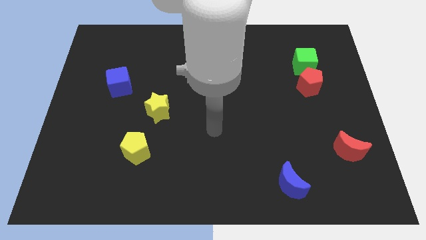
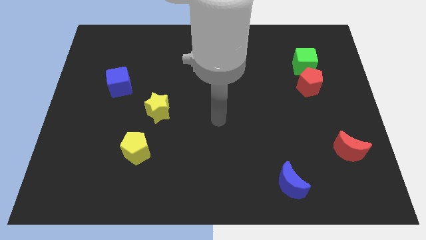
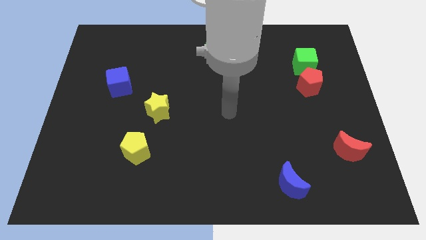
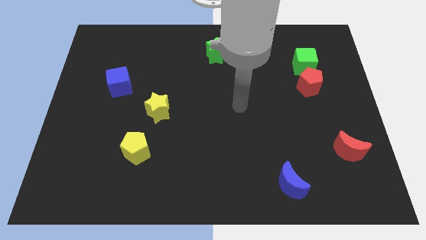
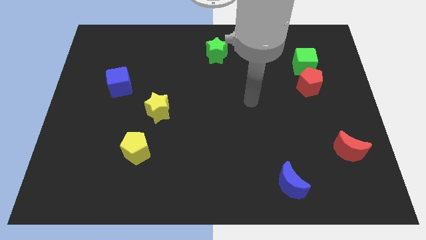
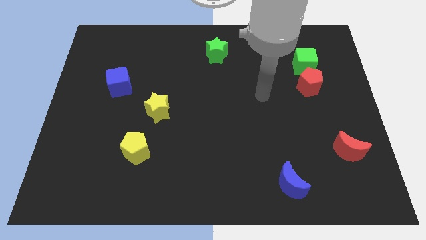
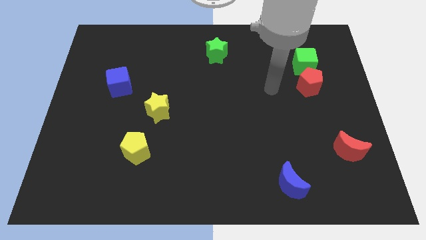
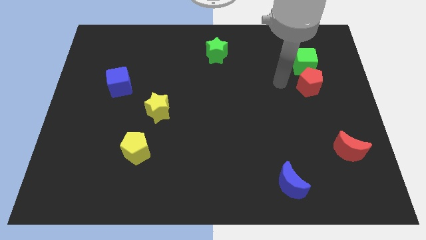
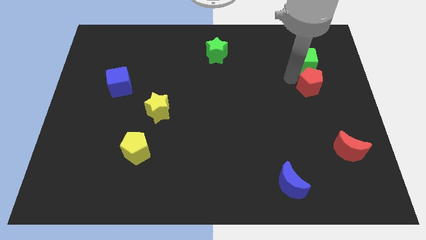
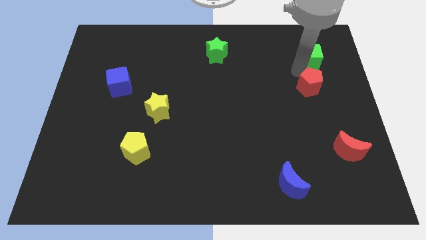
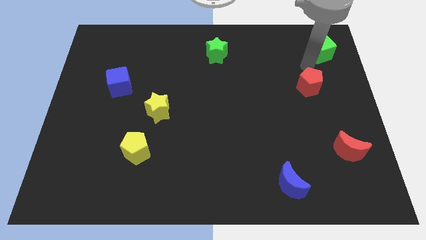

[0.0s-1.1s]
move the red pentagon away from the green cube

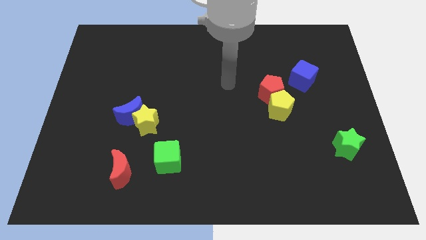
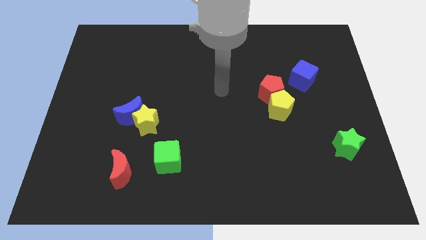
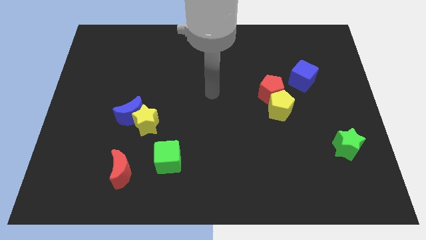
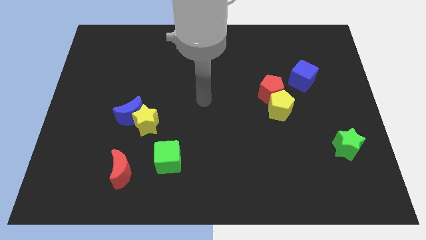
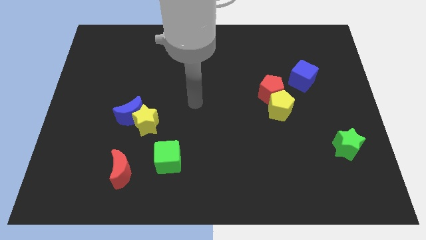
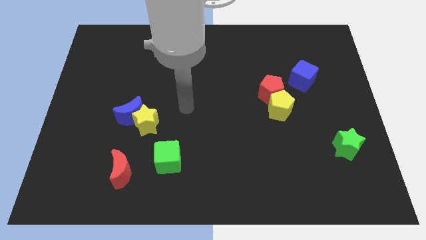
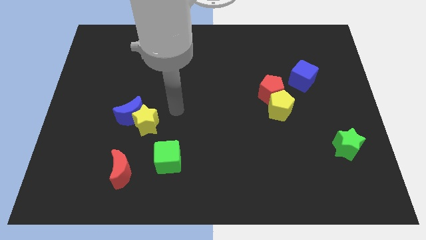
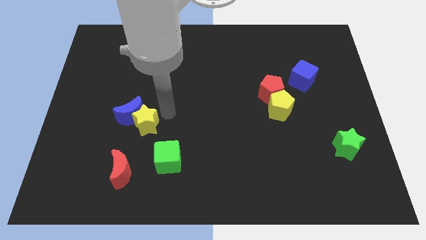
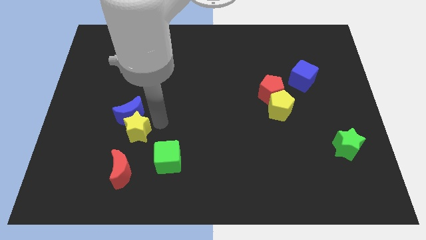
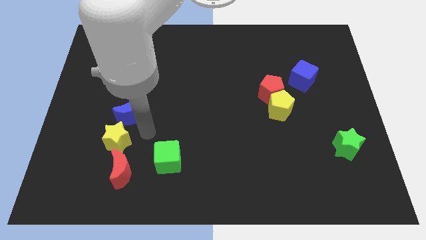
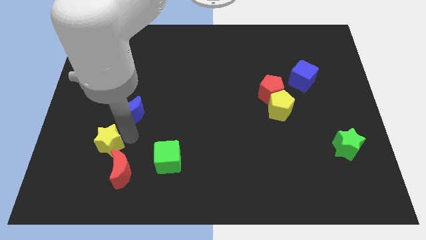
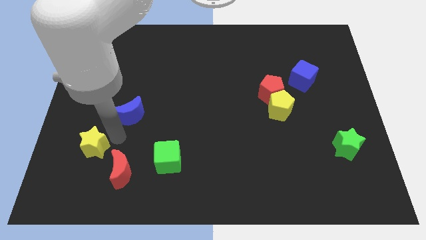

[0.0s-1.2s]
separate the blue moon from the yellow star

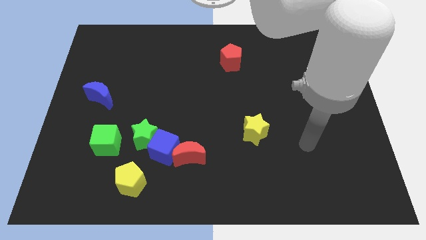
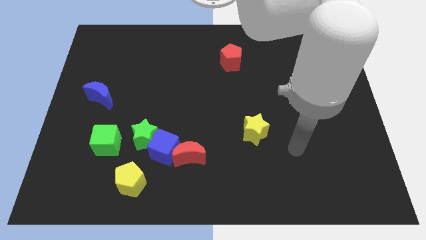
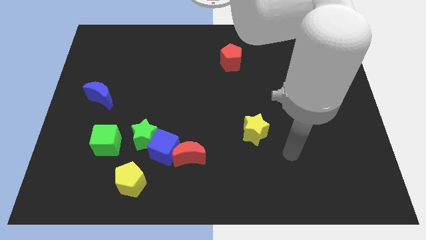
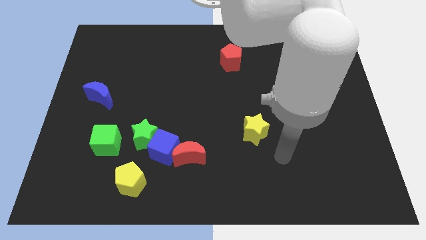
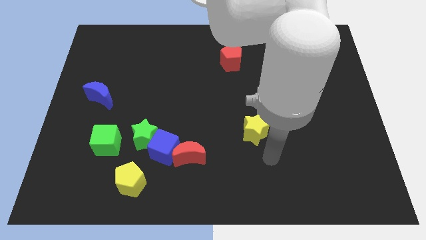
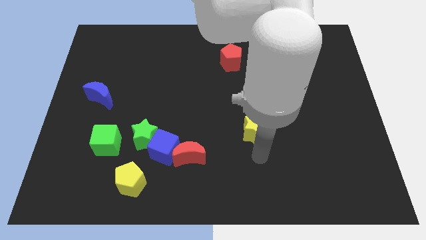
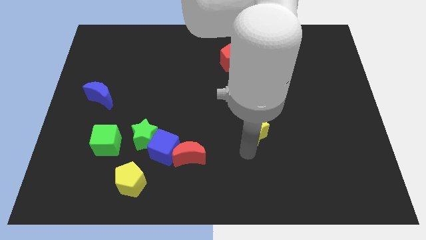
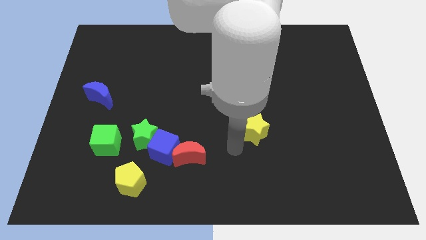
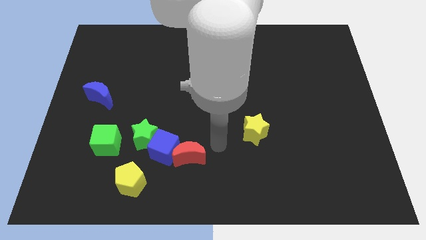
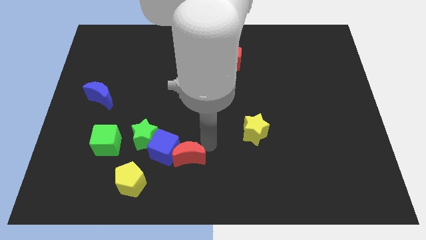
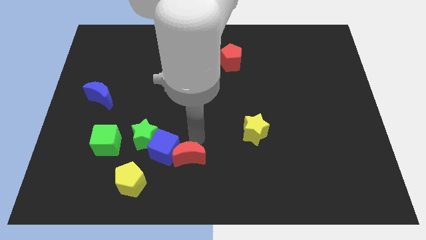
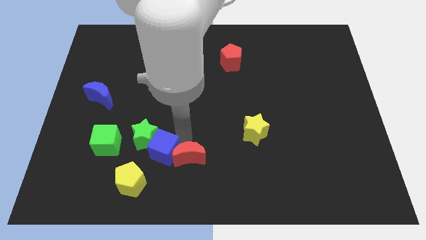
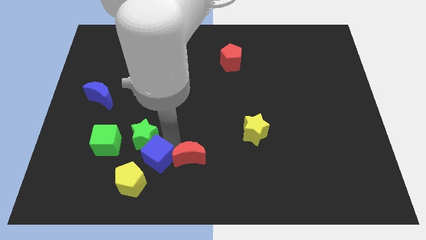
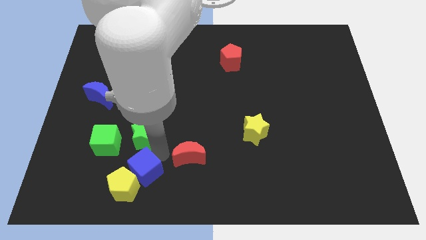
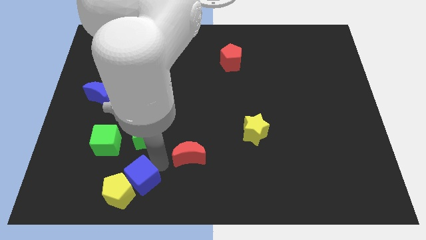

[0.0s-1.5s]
pull the red moon apart from the blue cube

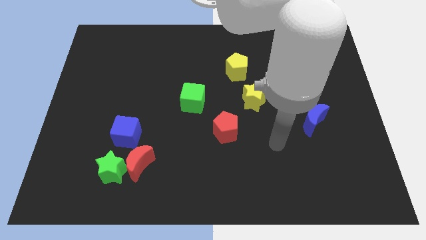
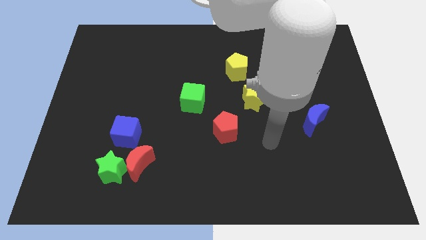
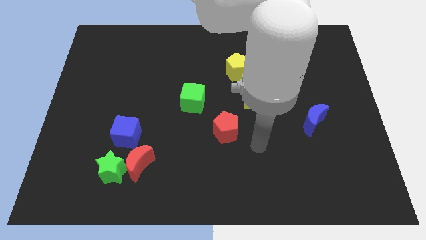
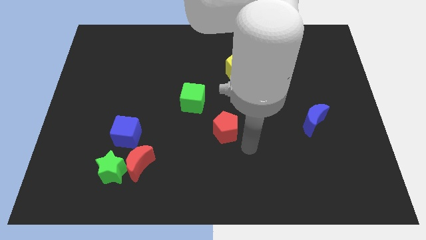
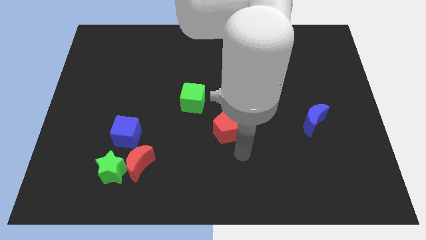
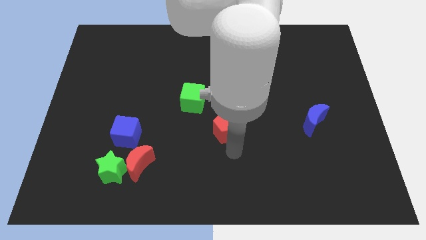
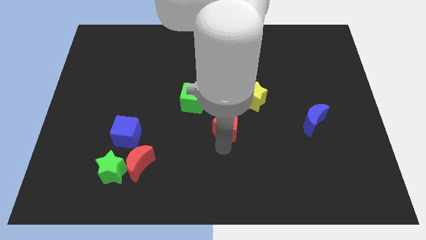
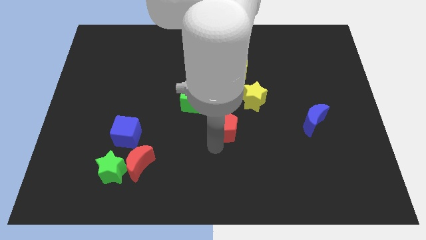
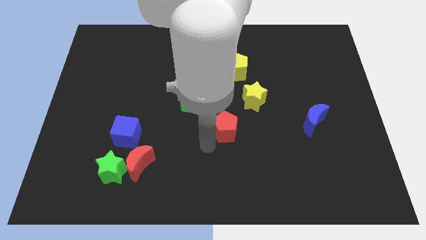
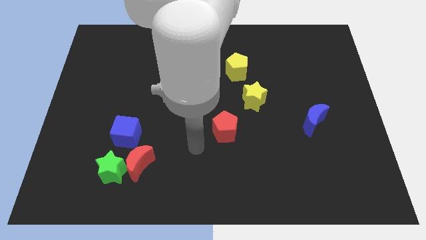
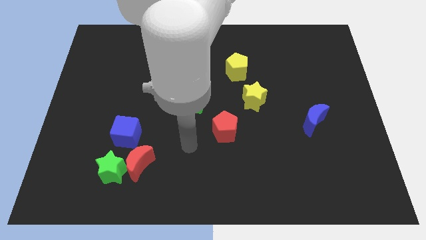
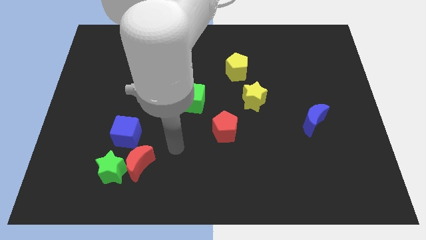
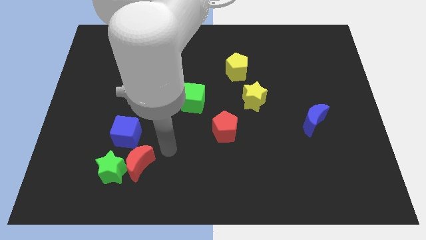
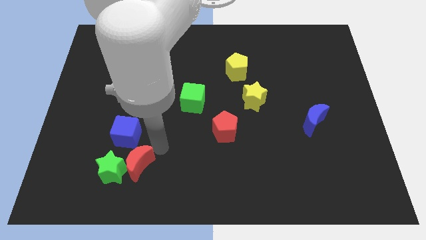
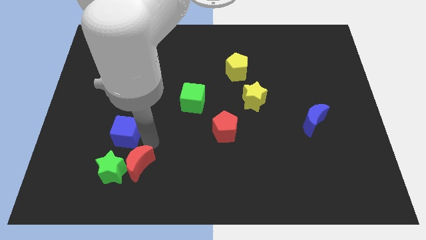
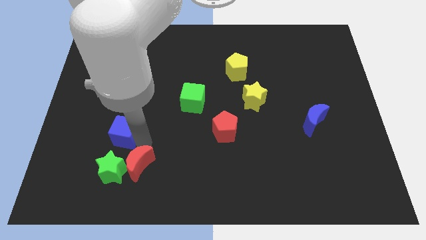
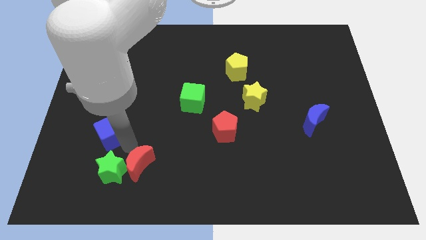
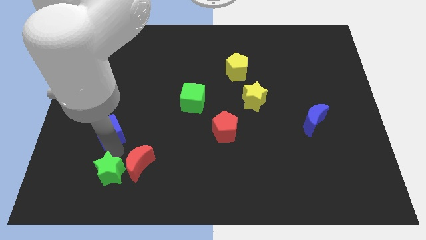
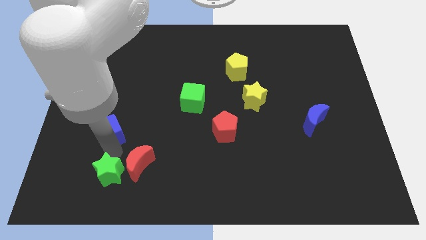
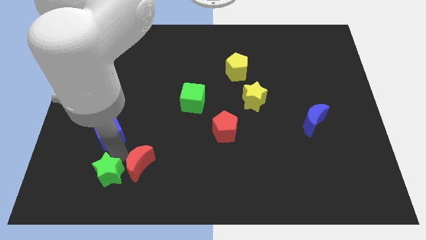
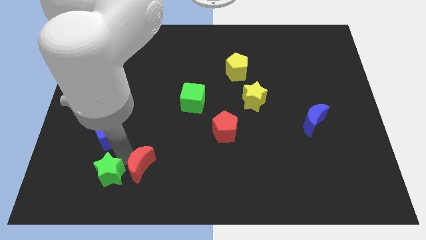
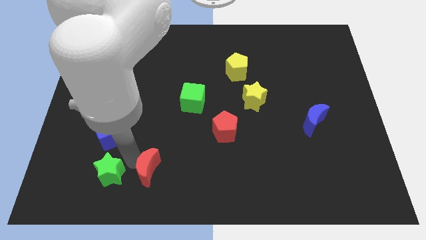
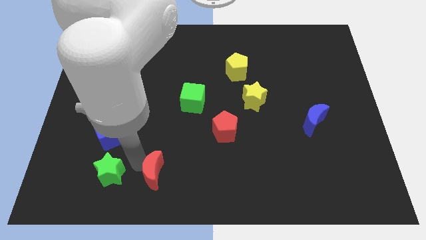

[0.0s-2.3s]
separate the red moon from the green star and blue cube

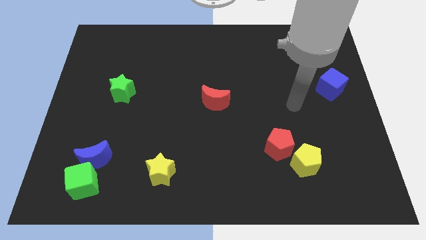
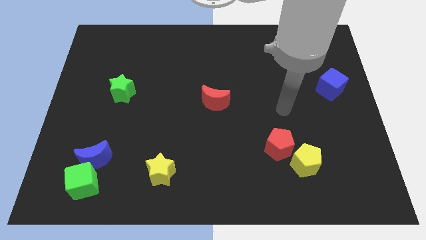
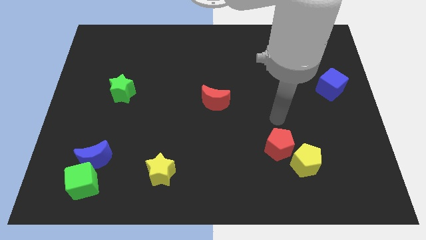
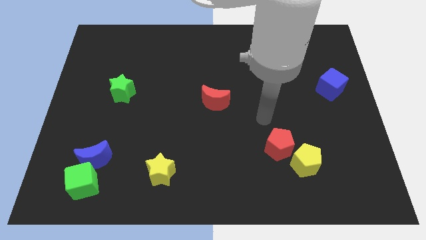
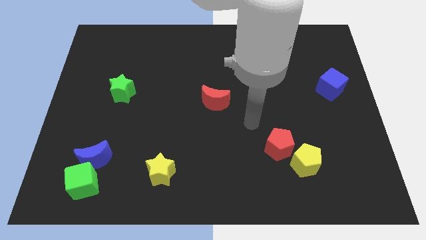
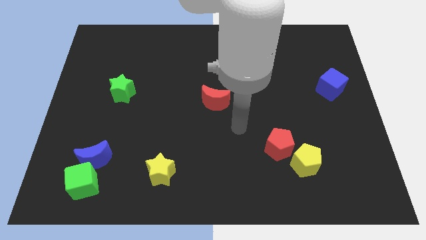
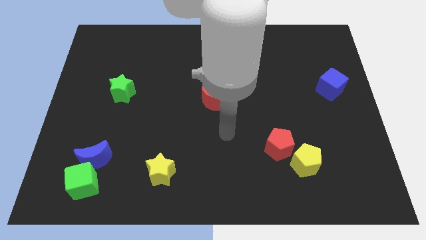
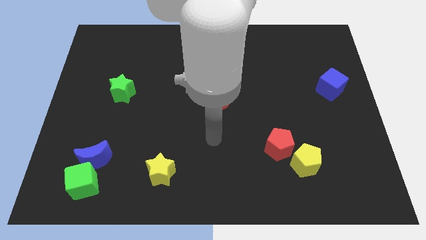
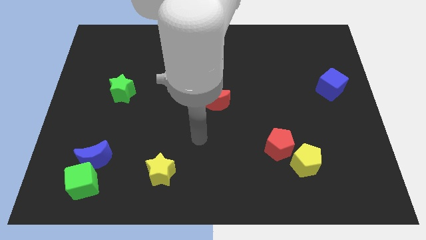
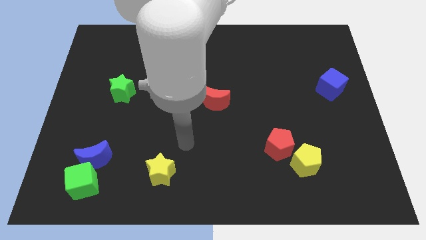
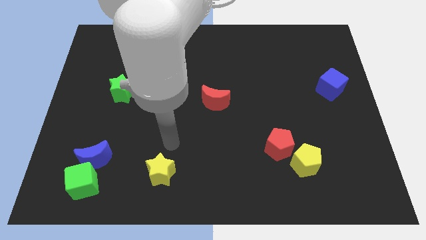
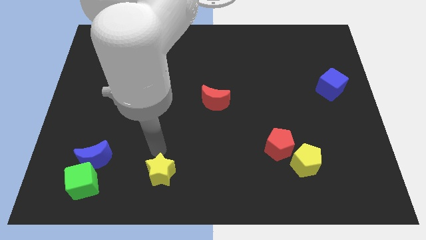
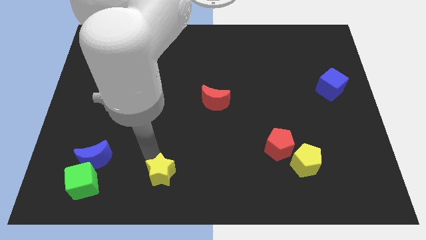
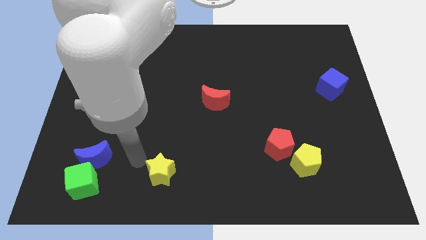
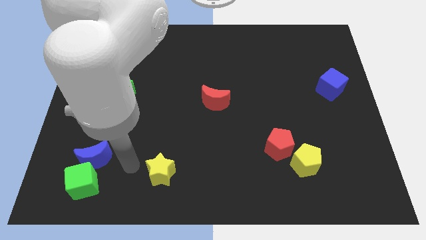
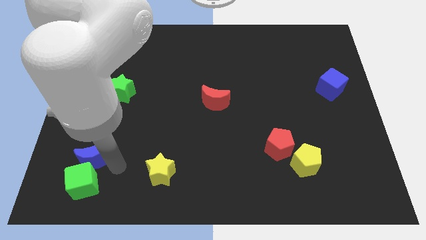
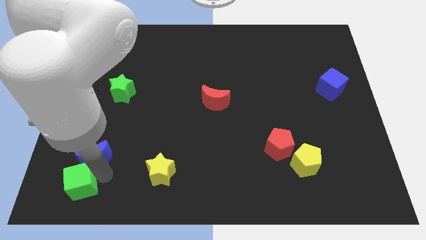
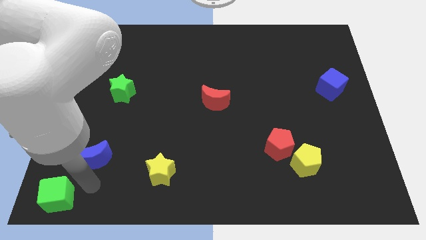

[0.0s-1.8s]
move the blue moon away from the green cube

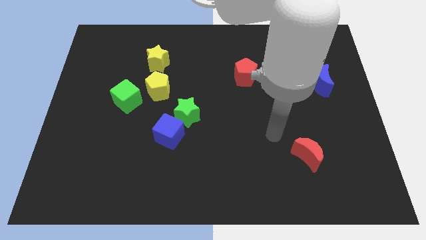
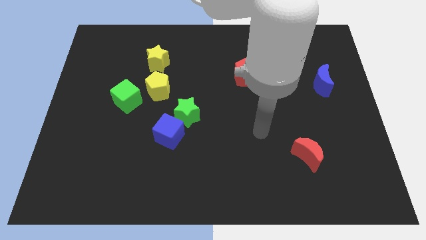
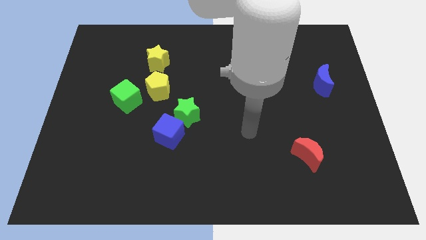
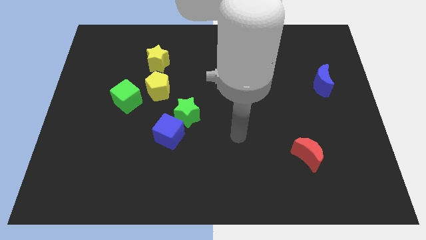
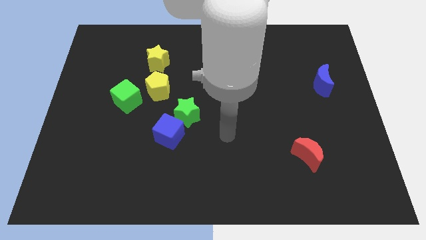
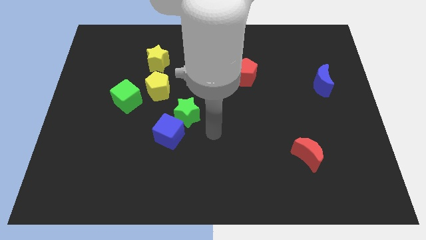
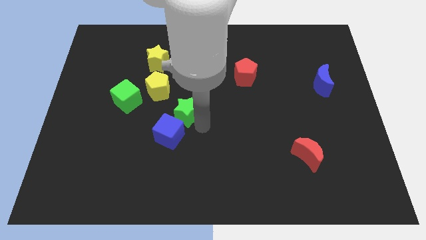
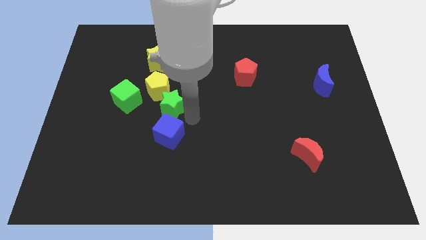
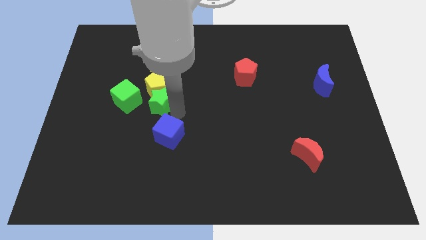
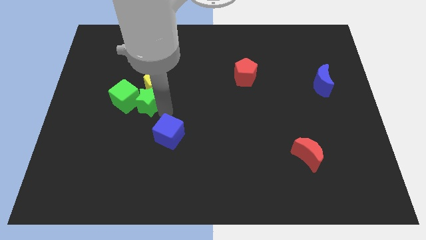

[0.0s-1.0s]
separate the blue cube from the green star

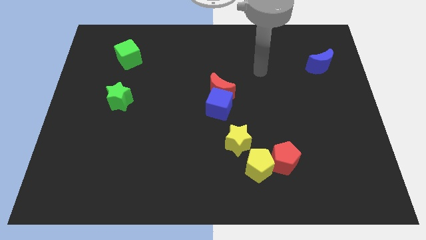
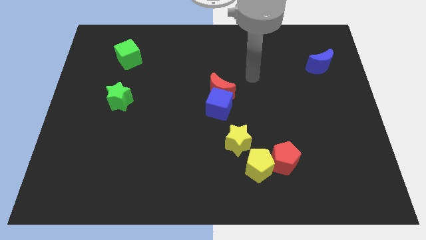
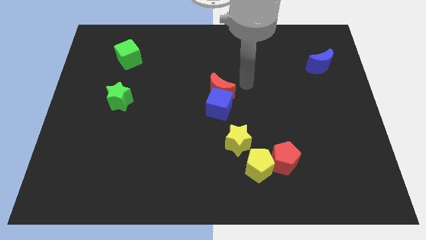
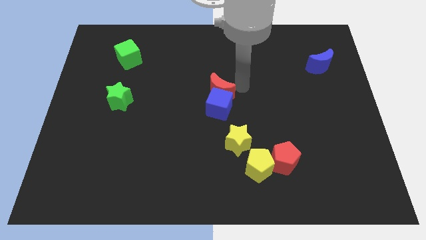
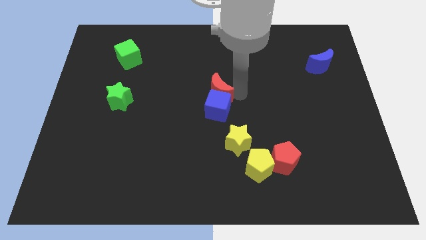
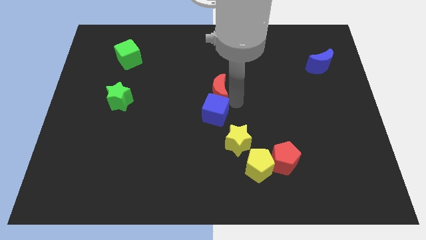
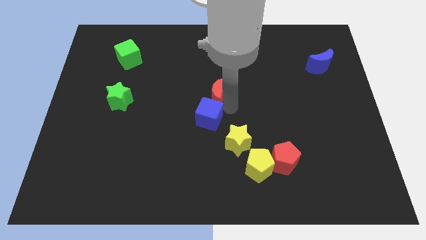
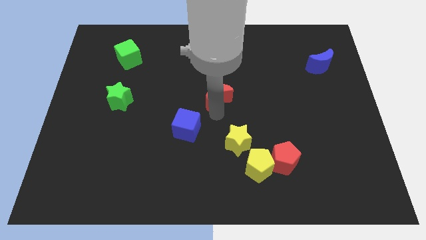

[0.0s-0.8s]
move the red moon away from the blue cube
